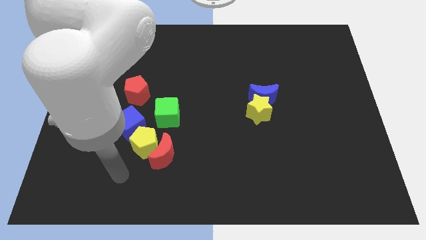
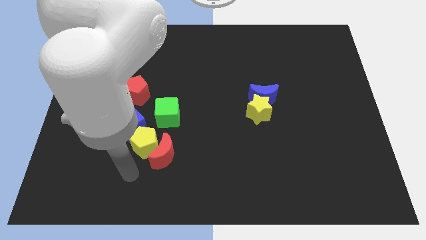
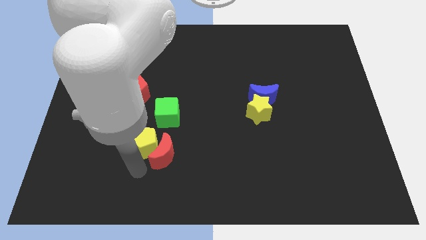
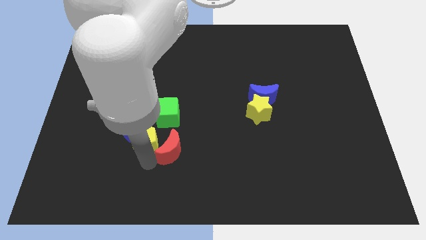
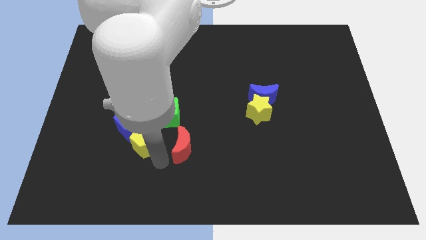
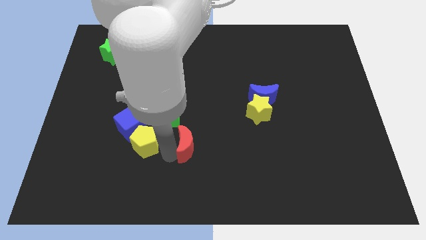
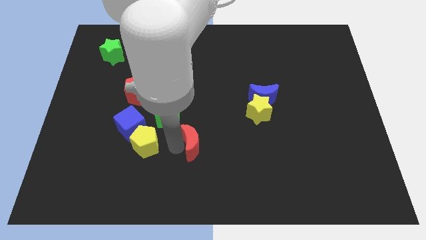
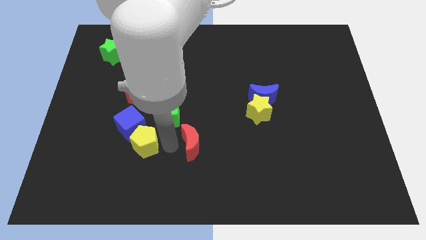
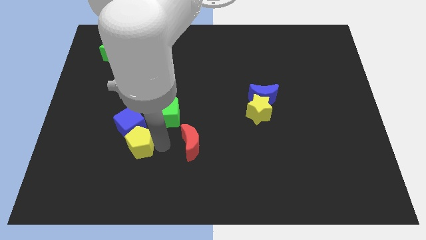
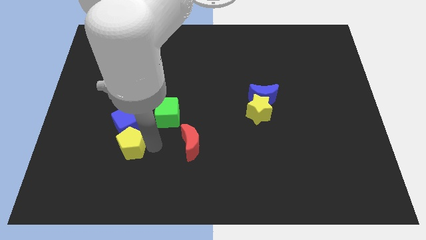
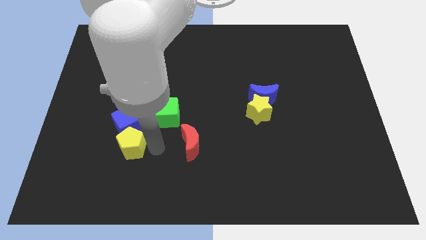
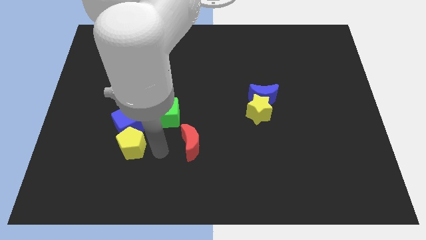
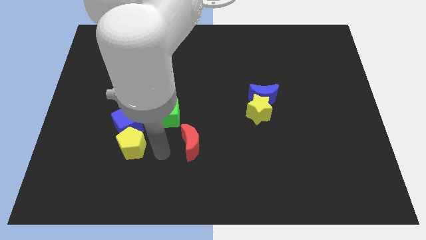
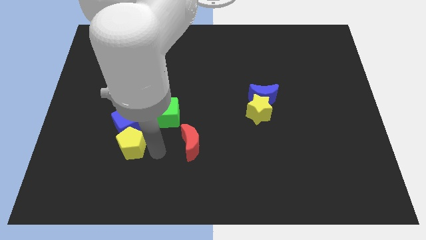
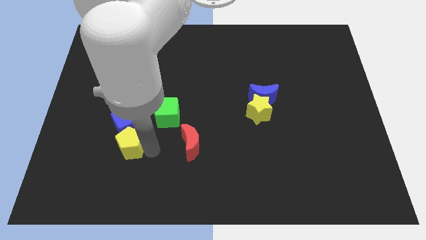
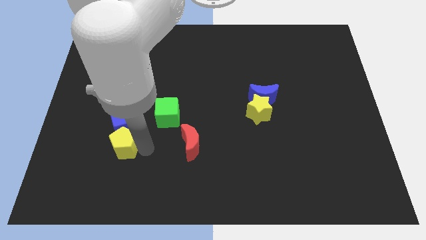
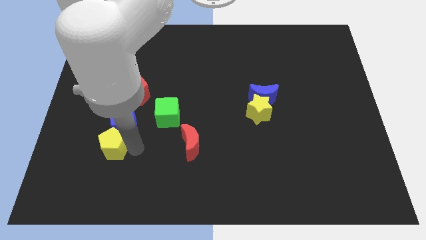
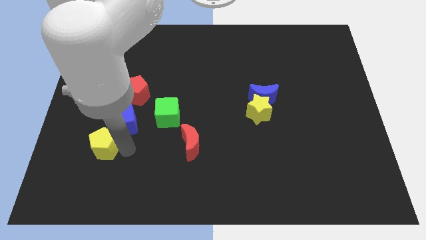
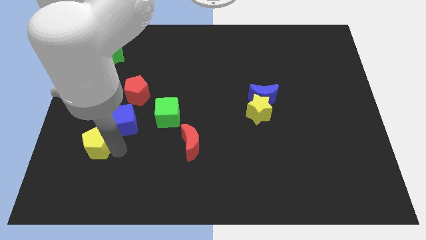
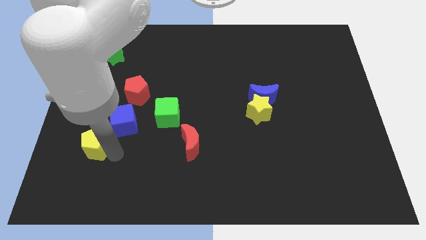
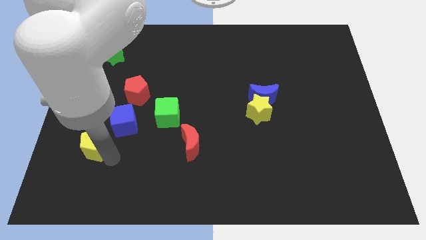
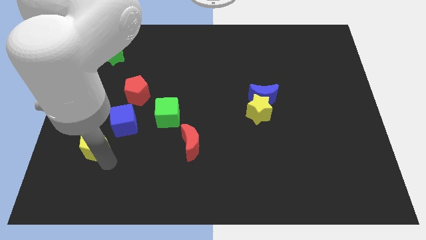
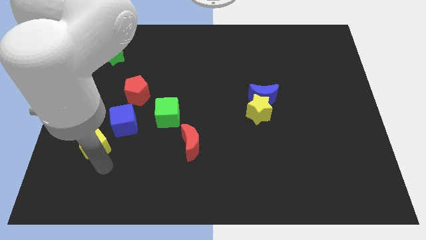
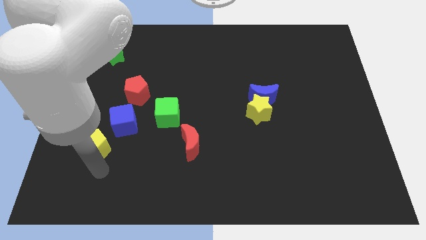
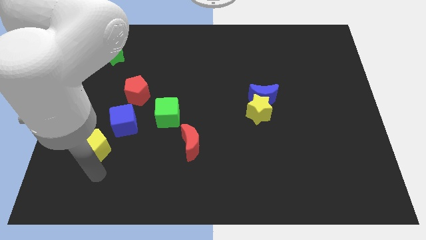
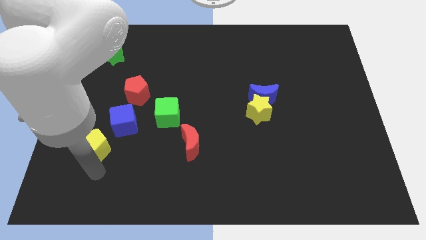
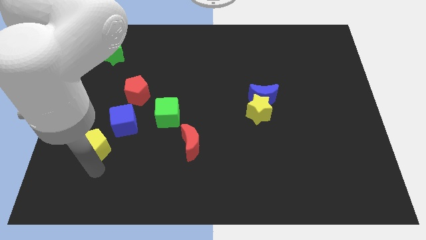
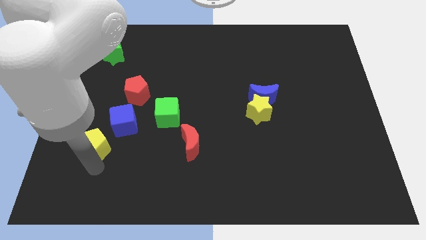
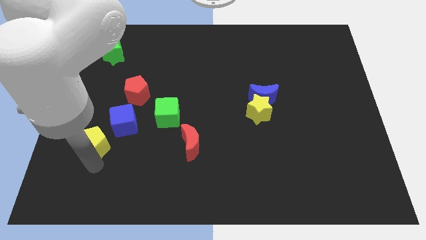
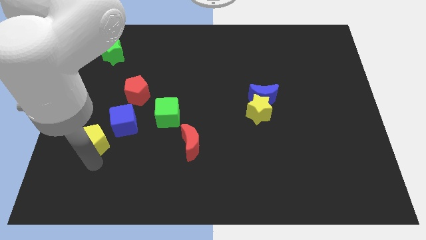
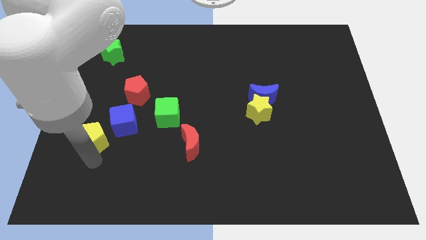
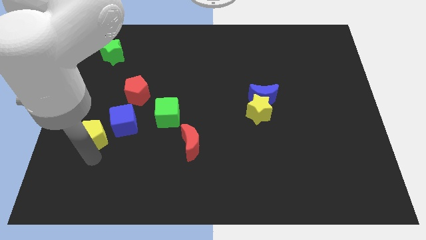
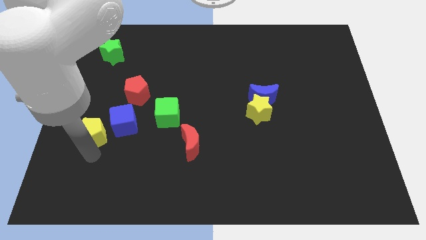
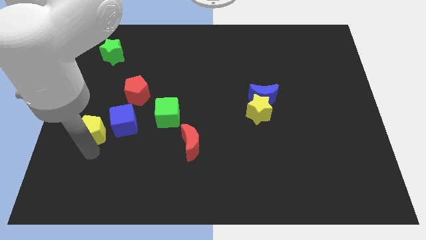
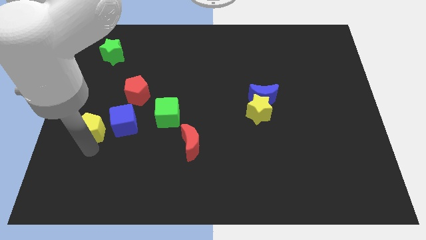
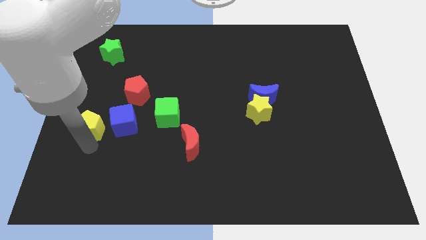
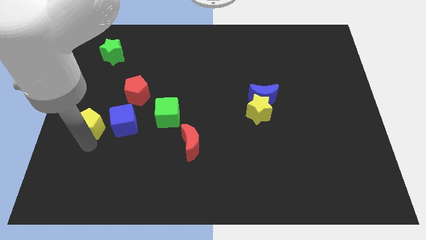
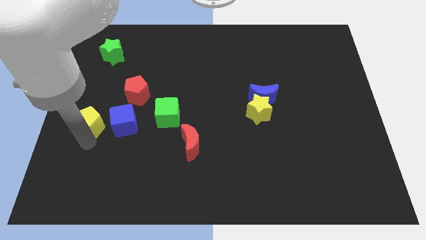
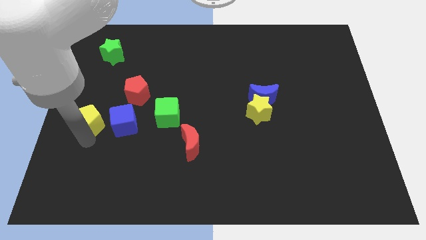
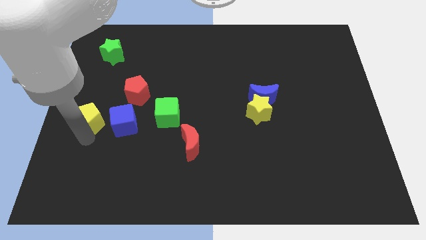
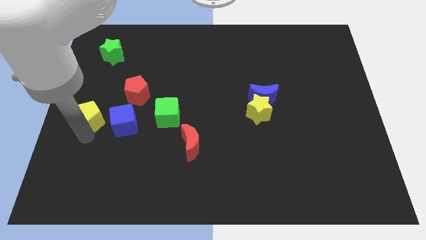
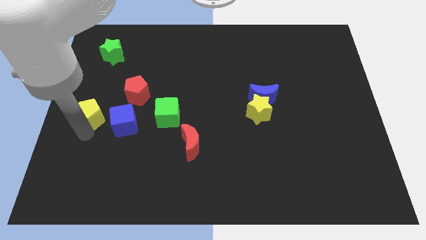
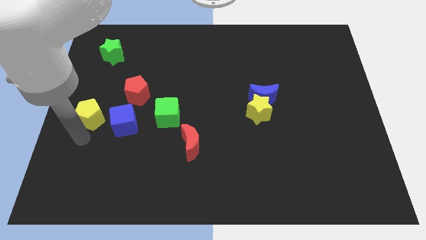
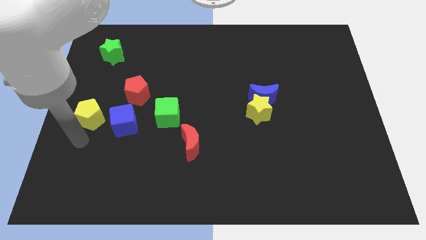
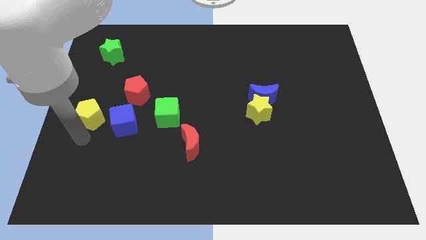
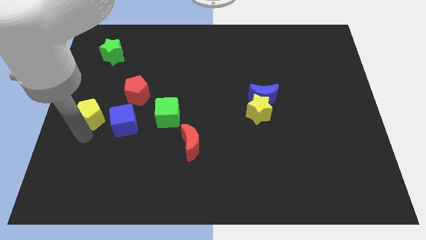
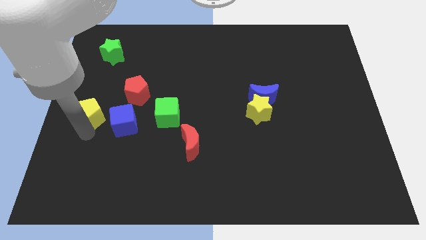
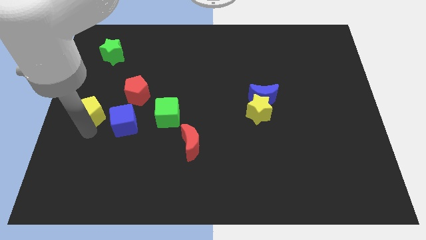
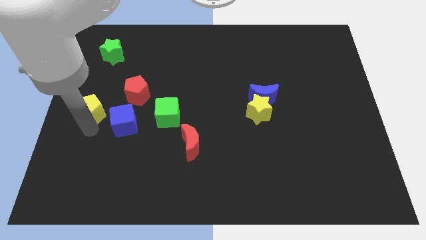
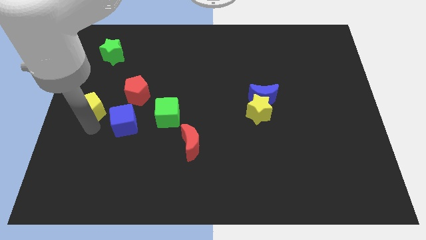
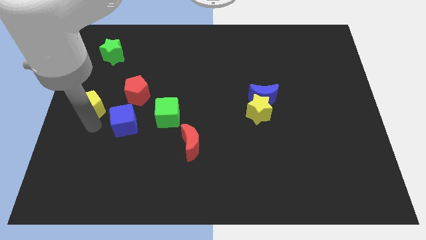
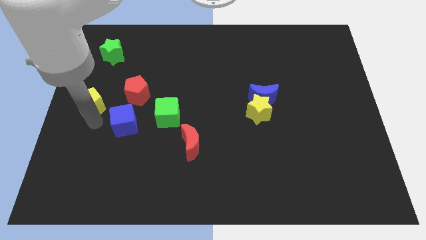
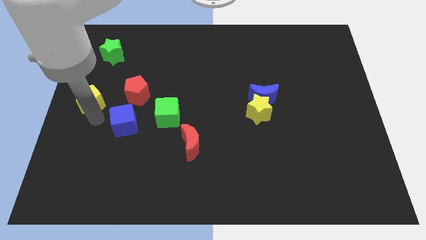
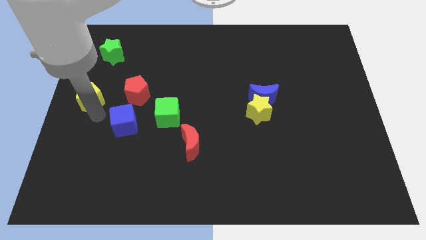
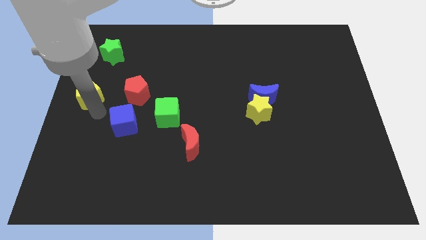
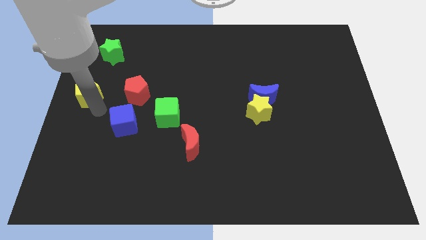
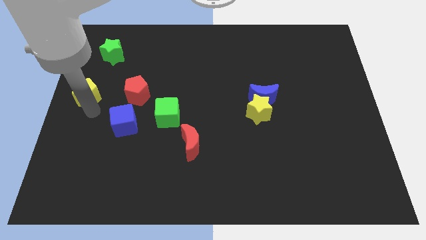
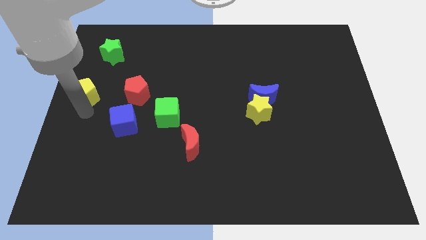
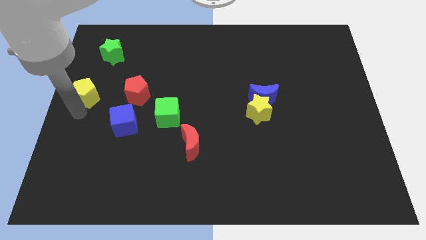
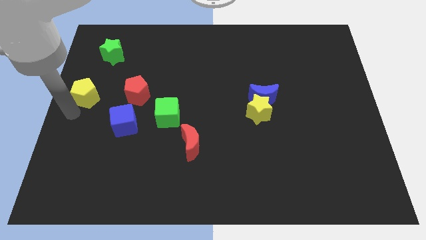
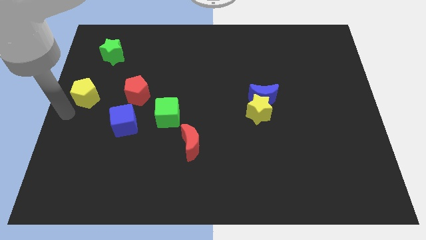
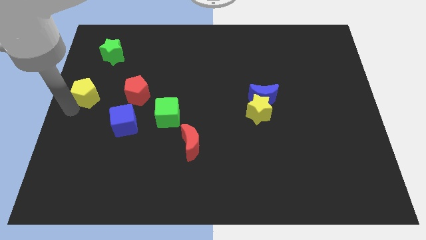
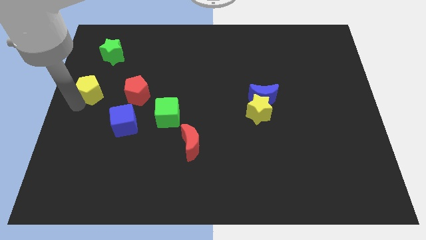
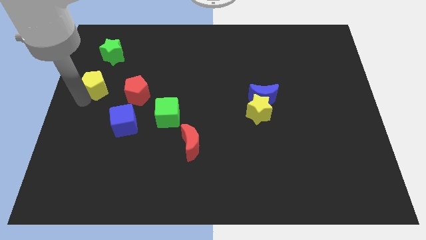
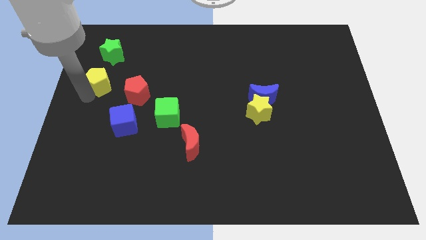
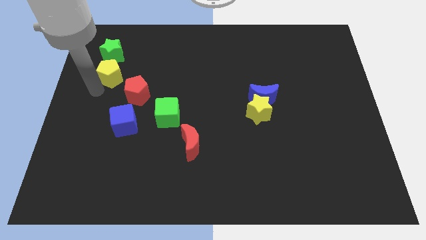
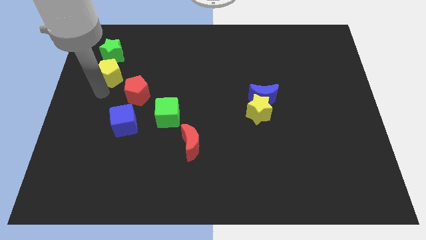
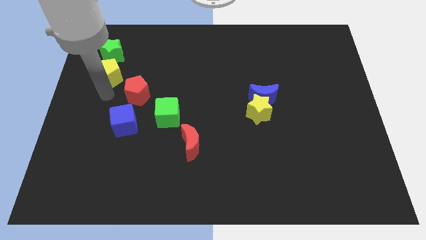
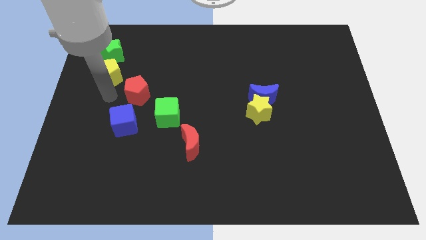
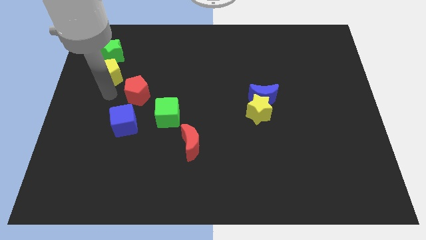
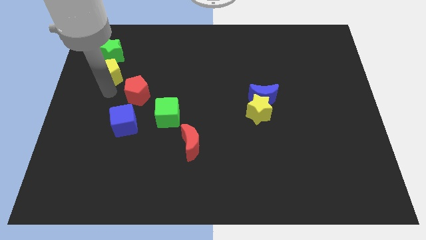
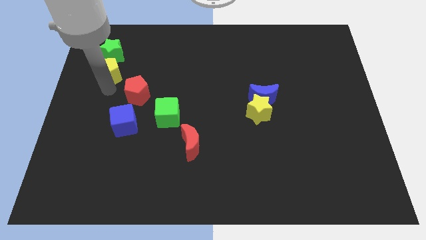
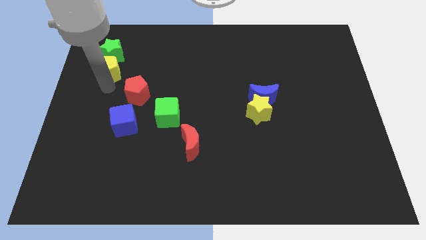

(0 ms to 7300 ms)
move the yellow pentagon close to the green star
